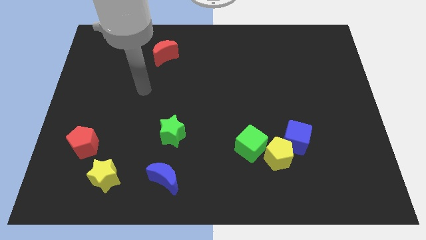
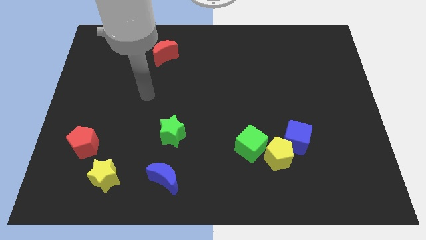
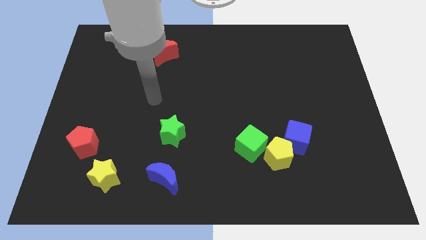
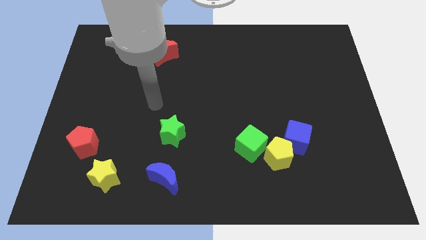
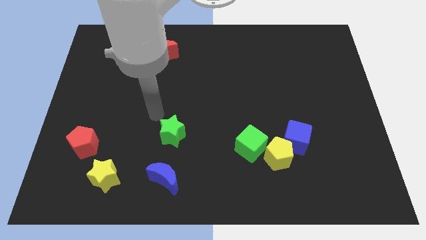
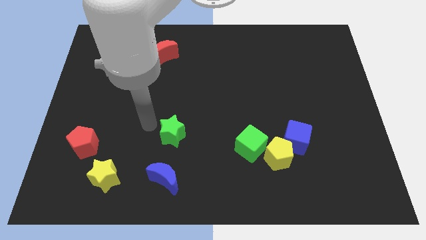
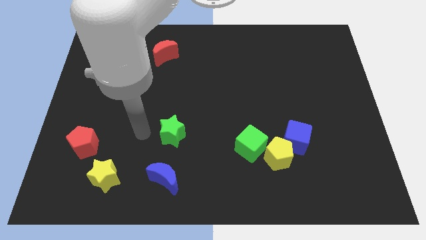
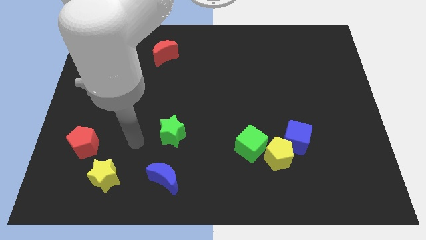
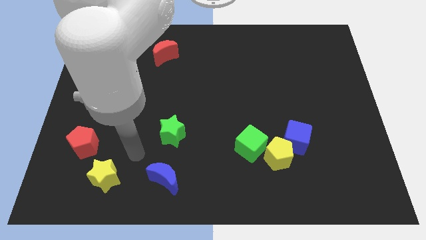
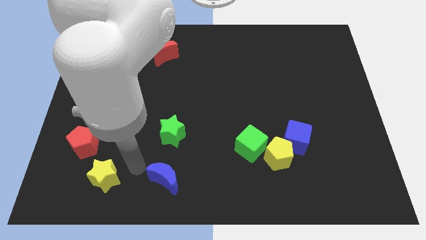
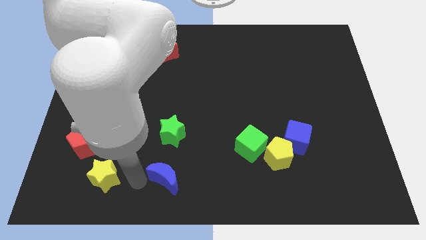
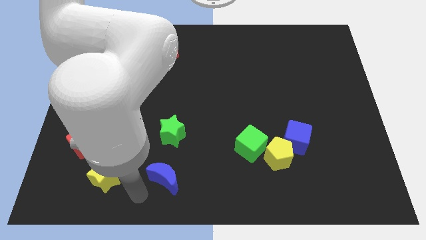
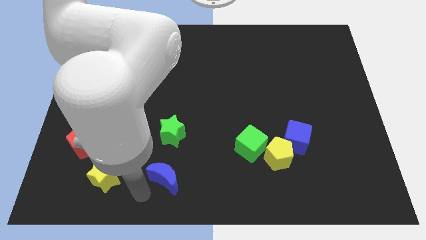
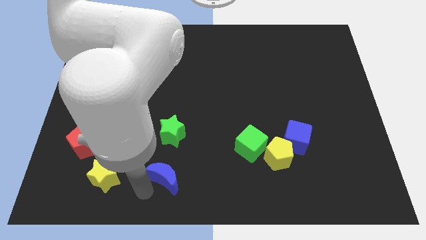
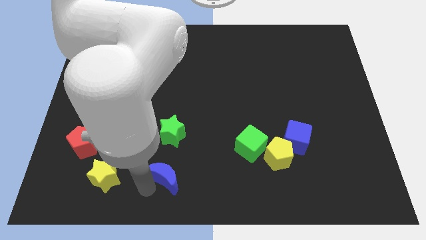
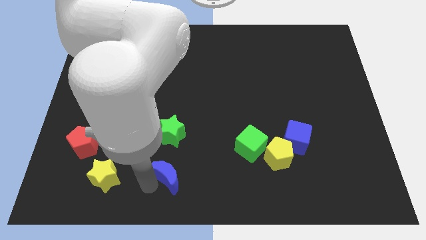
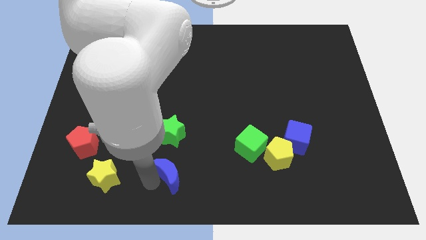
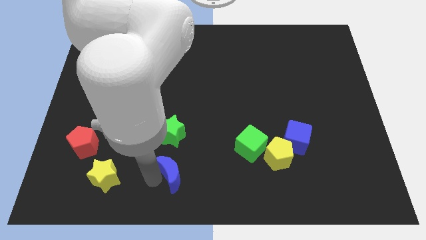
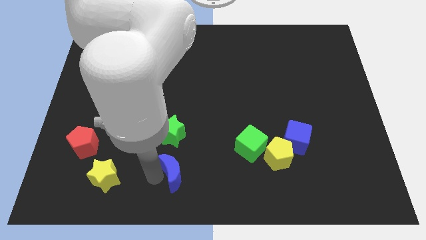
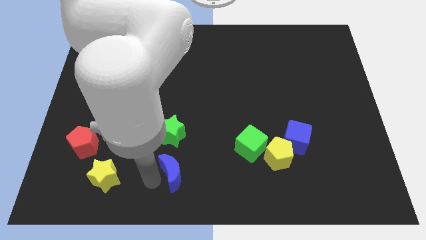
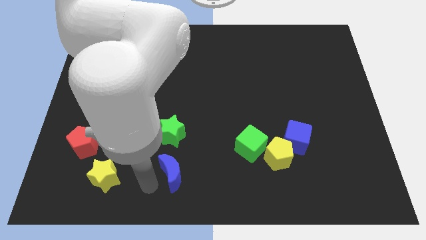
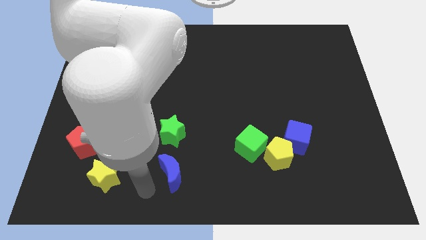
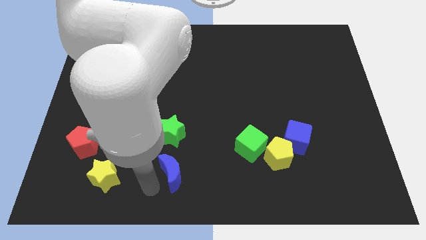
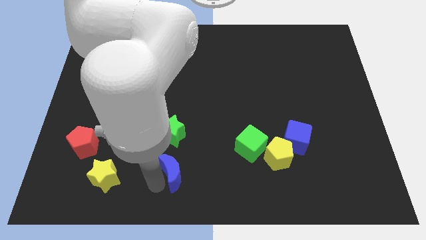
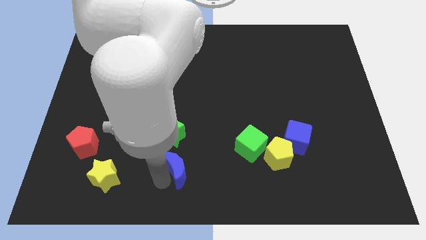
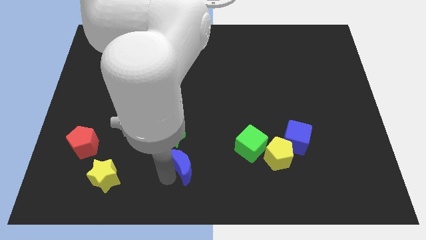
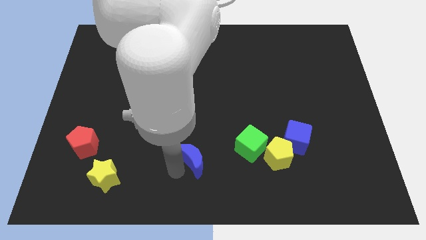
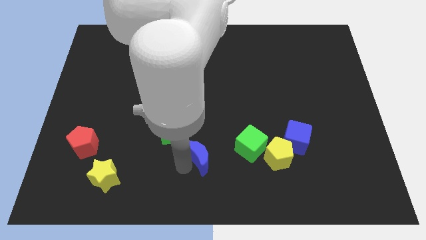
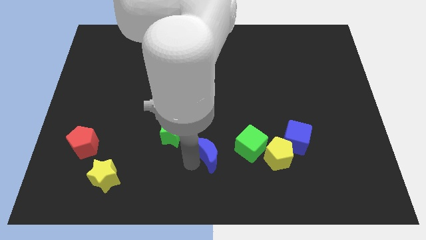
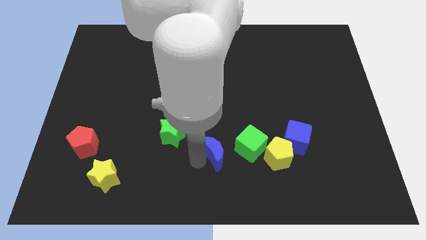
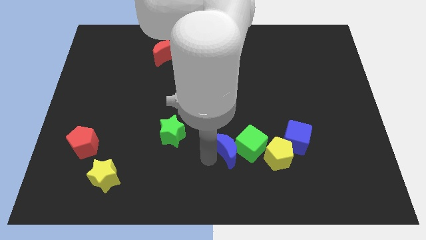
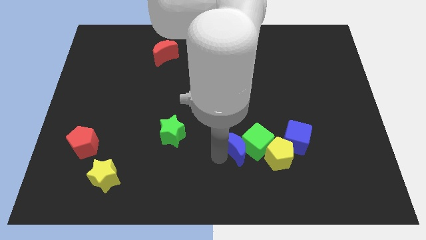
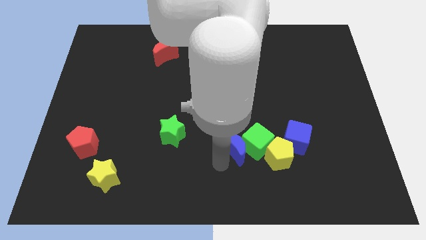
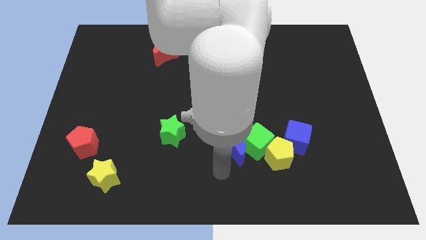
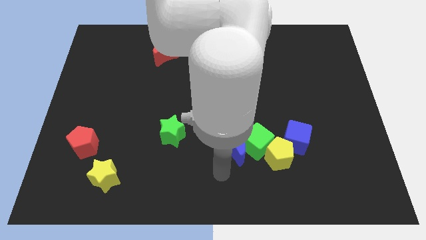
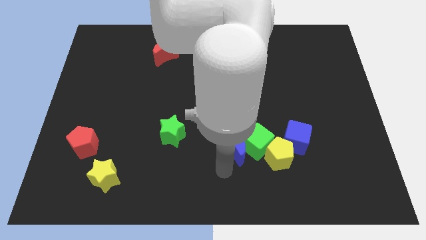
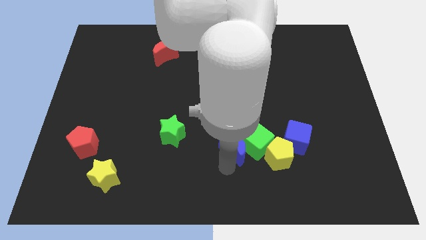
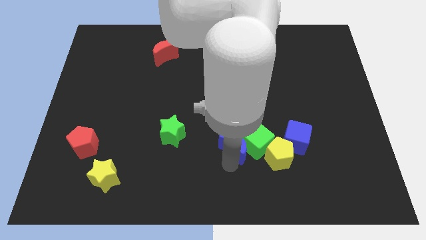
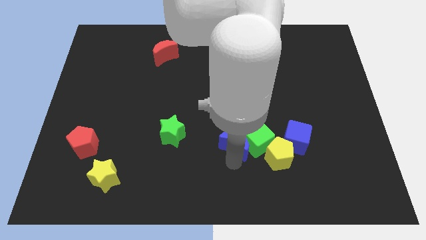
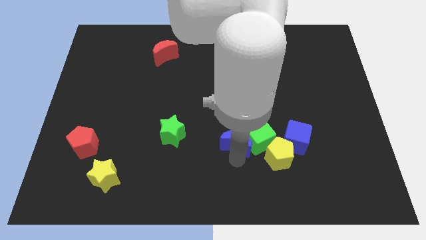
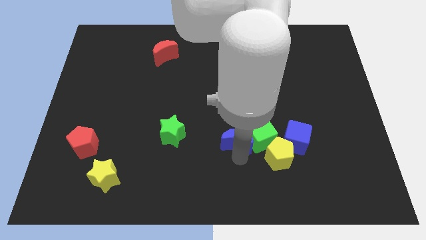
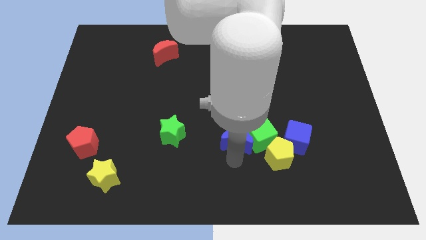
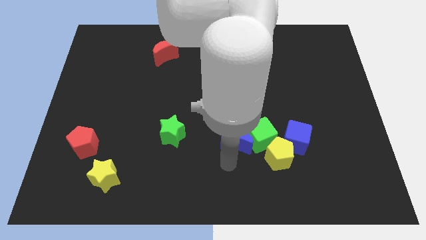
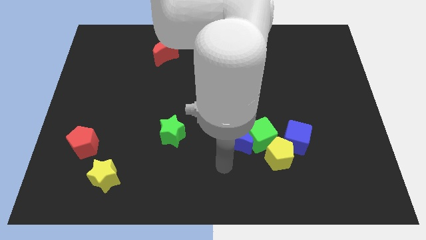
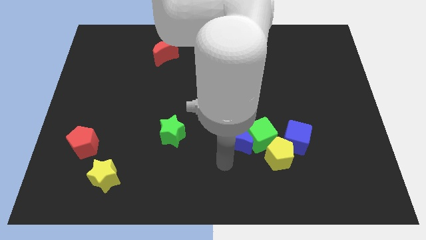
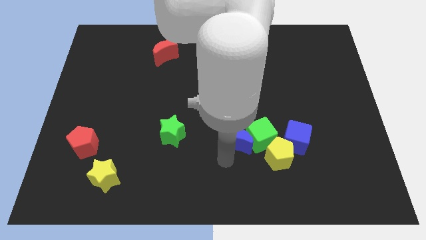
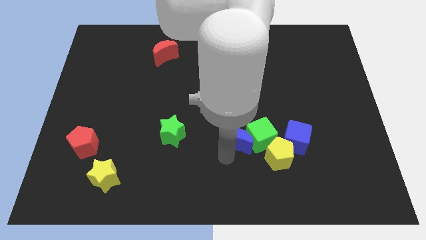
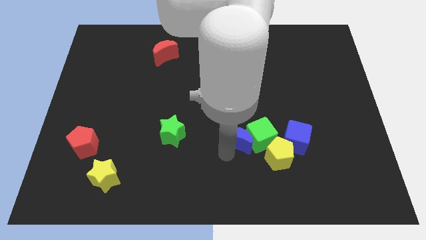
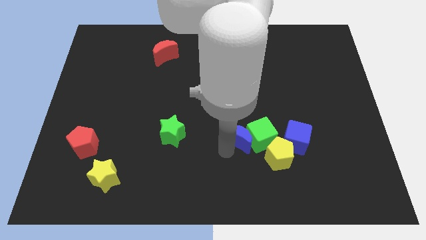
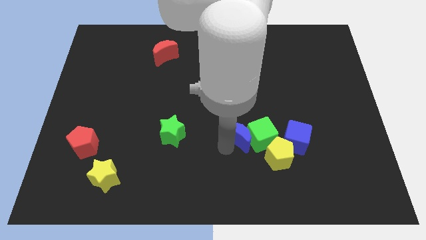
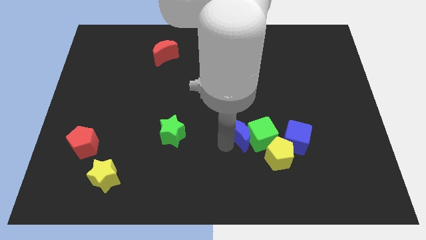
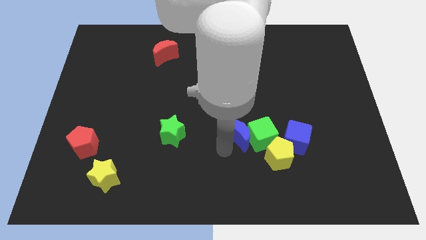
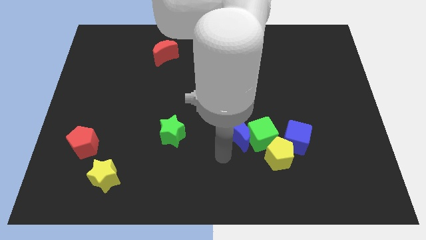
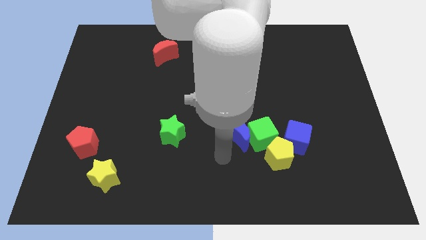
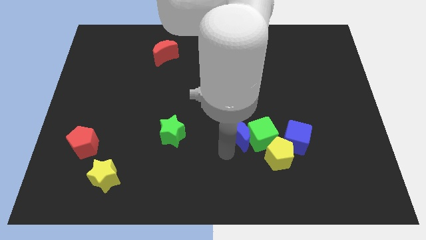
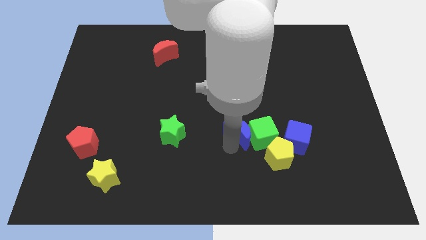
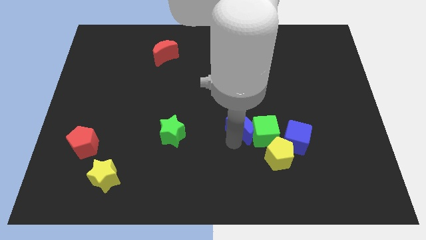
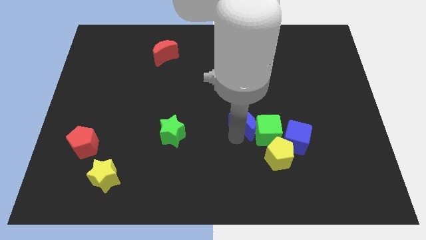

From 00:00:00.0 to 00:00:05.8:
slide the blue moon diagonally upwards and right

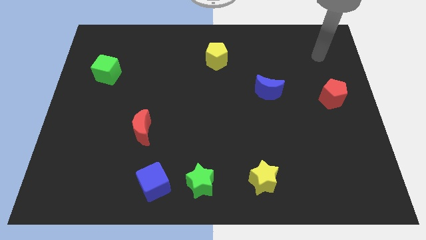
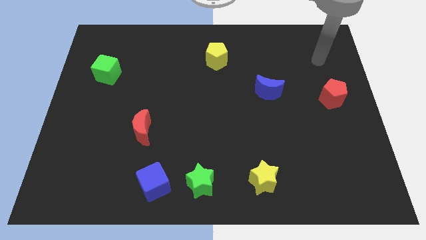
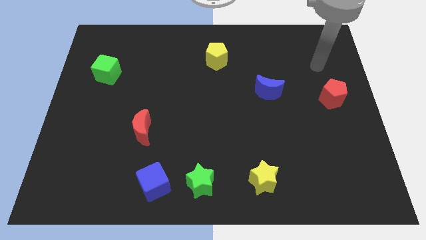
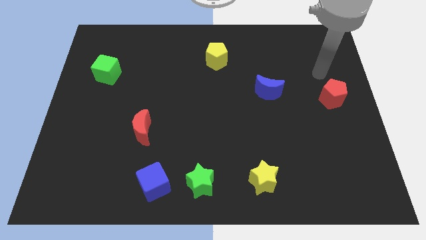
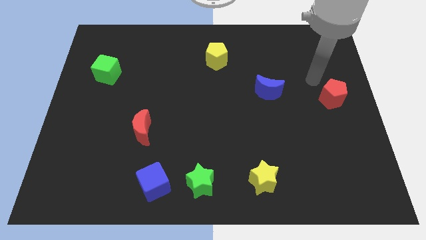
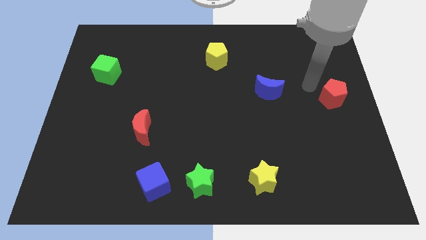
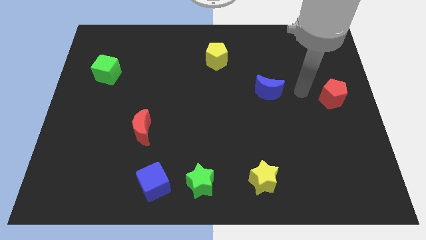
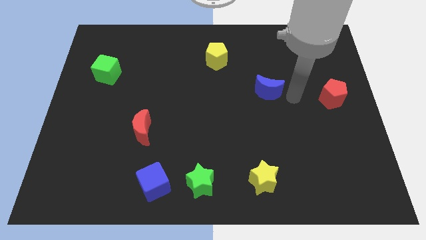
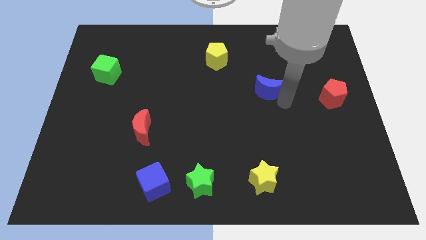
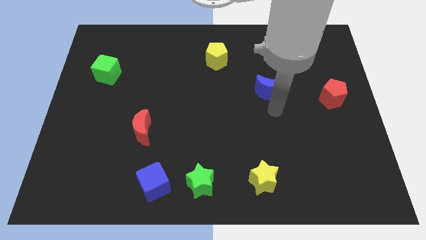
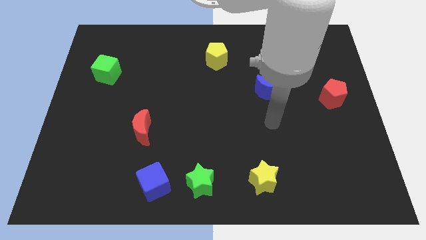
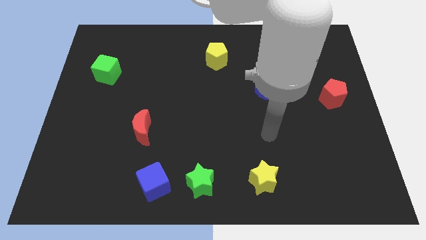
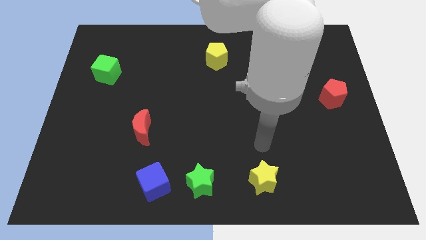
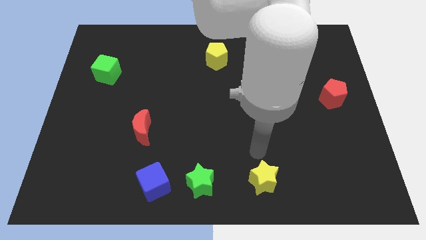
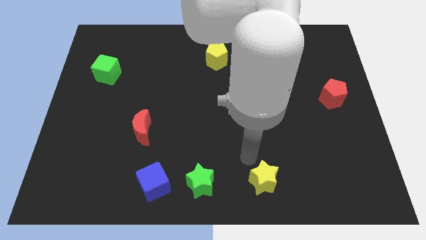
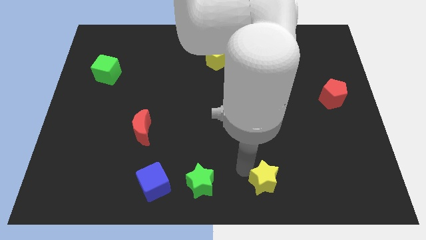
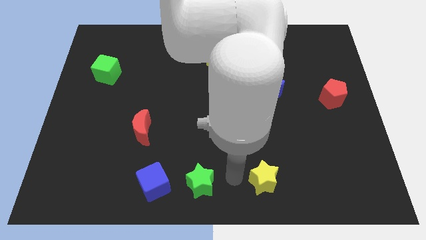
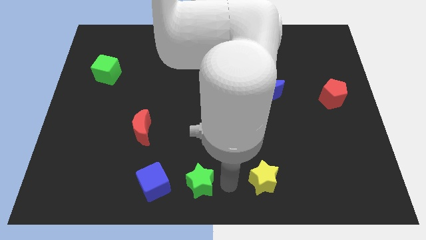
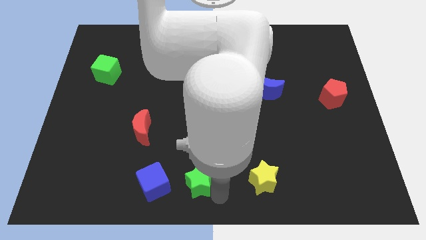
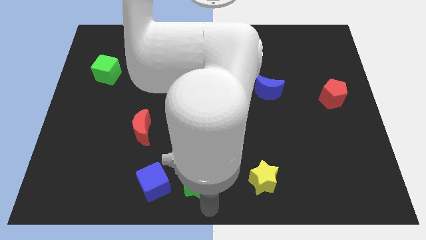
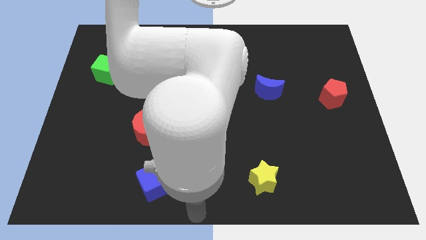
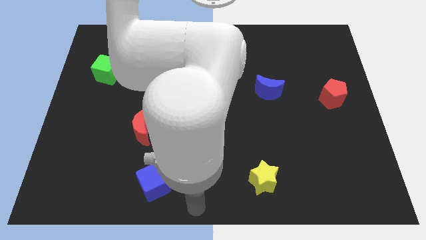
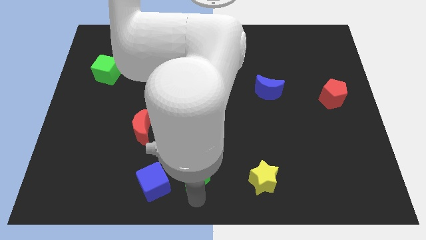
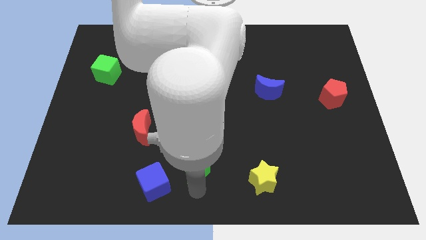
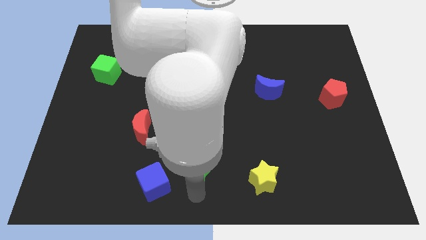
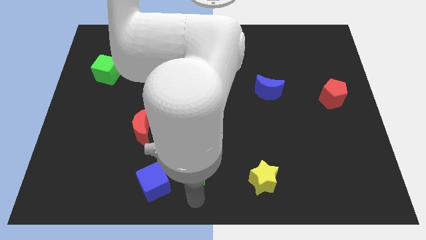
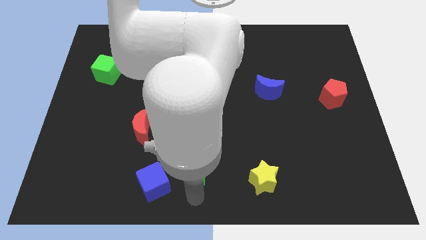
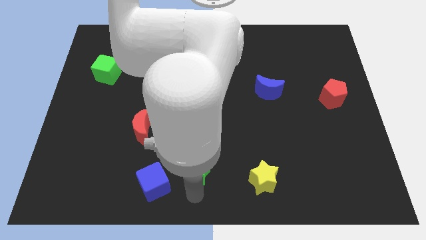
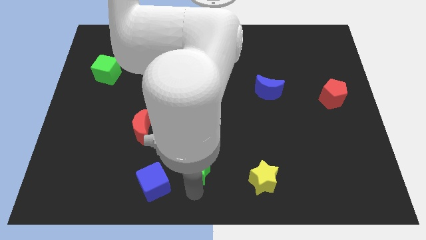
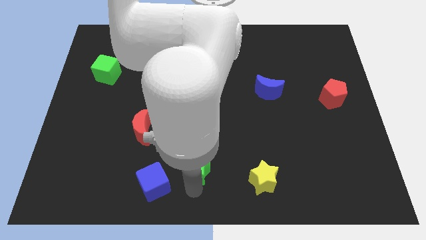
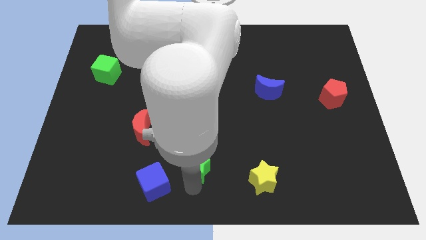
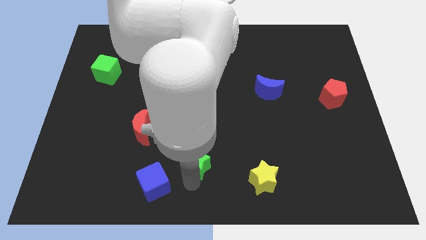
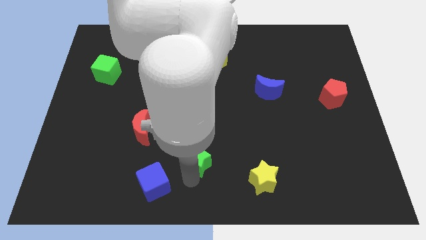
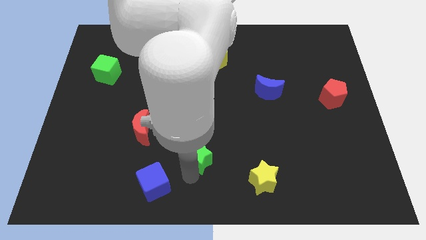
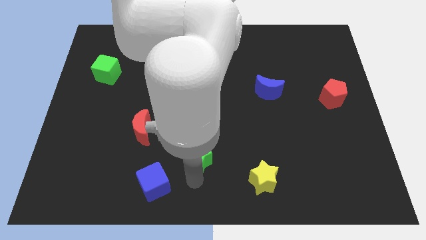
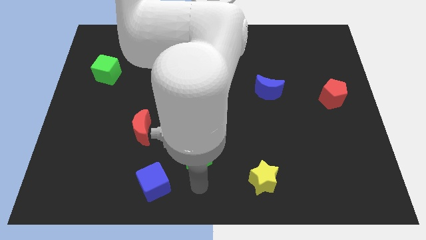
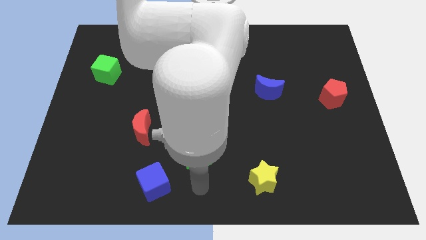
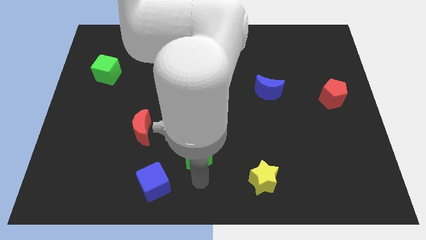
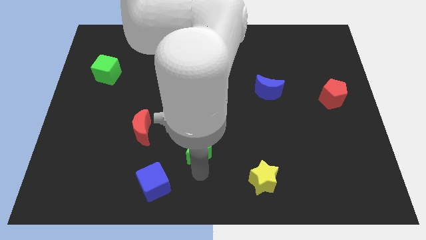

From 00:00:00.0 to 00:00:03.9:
slide the green star up a little bit
